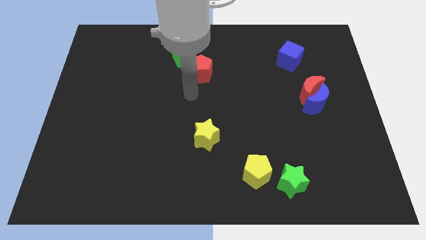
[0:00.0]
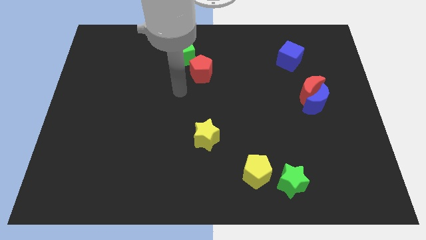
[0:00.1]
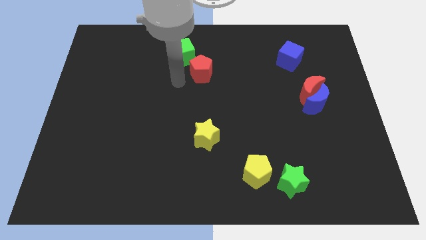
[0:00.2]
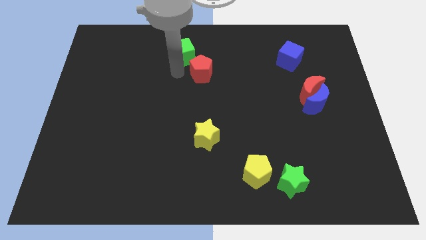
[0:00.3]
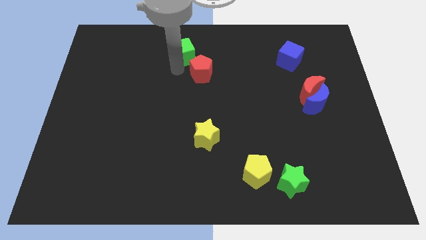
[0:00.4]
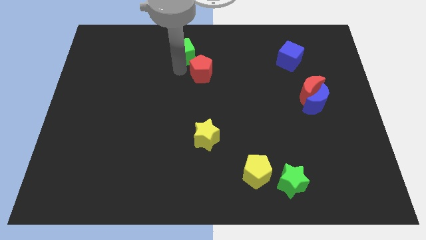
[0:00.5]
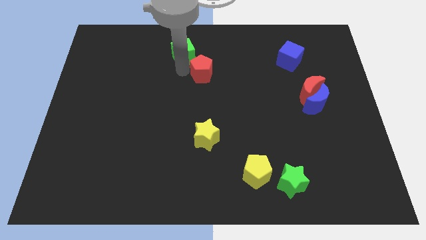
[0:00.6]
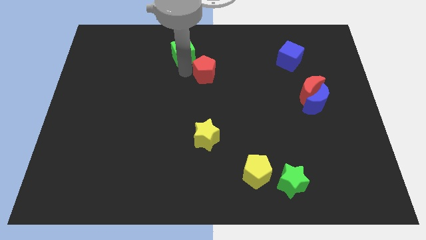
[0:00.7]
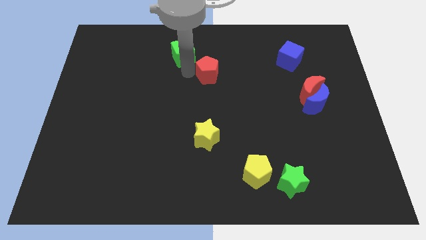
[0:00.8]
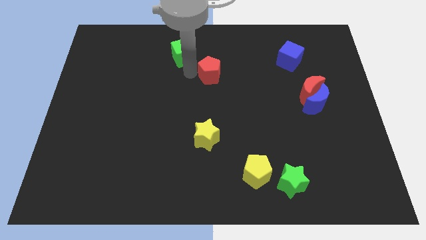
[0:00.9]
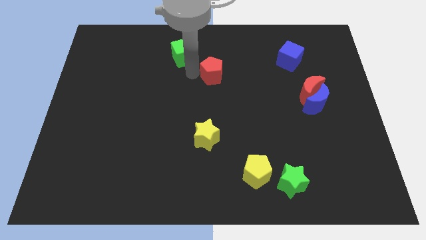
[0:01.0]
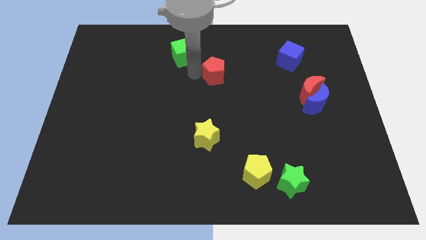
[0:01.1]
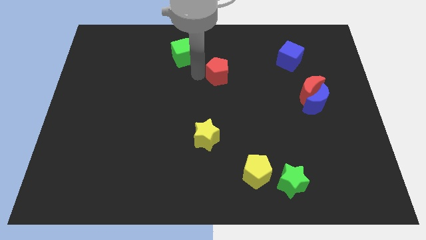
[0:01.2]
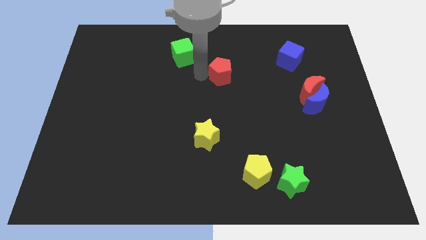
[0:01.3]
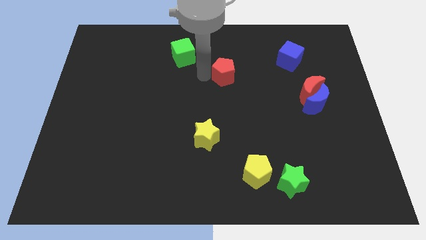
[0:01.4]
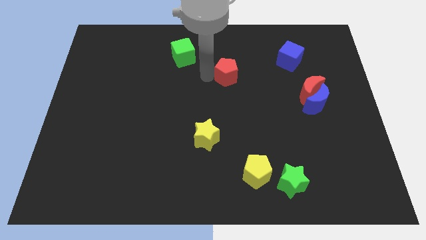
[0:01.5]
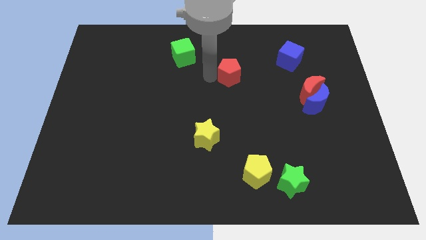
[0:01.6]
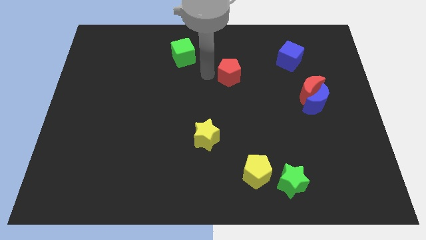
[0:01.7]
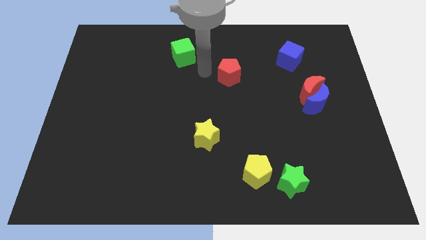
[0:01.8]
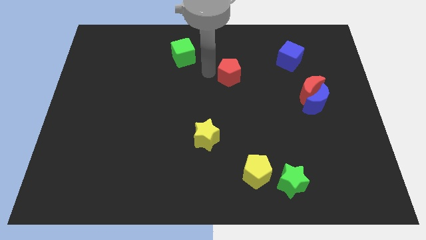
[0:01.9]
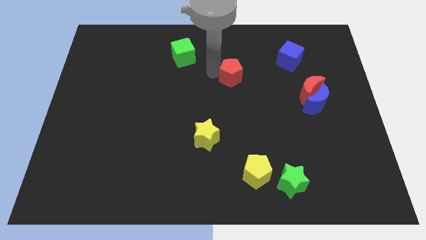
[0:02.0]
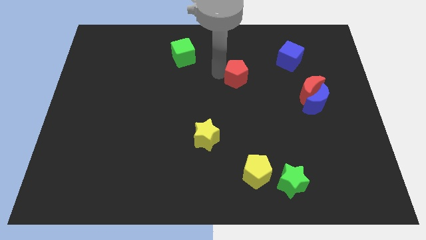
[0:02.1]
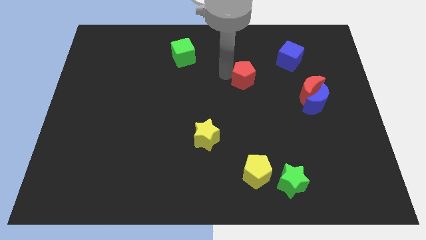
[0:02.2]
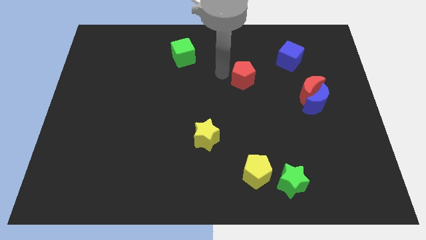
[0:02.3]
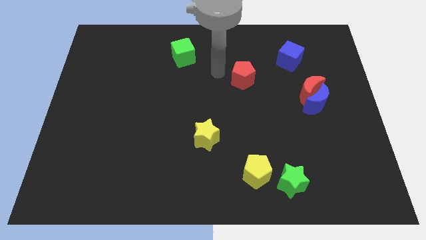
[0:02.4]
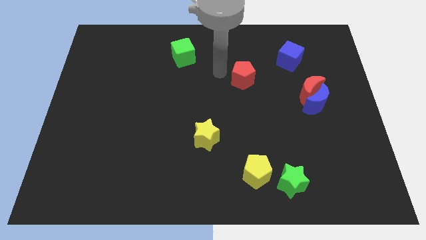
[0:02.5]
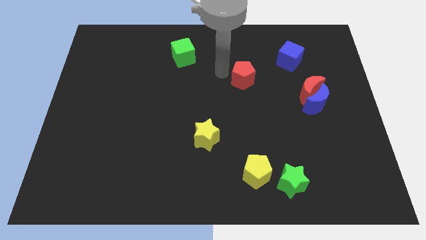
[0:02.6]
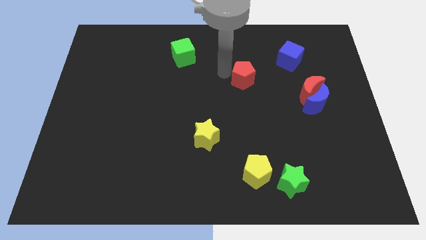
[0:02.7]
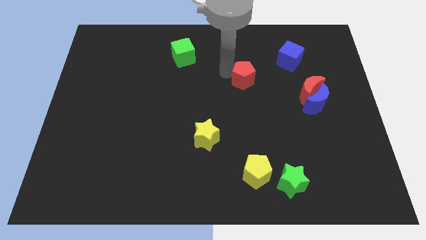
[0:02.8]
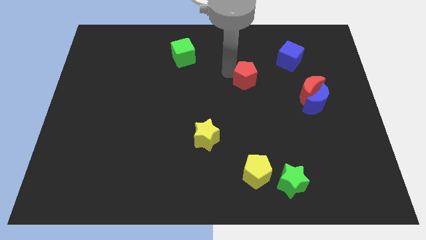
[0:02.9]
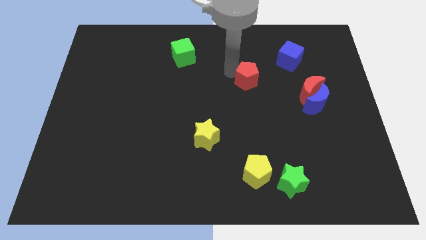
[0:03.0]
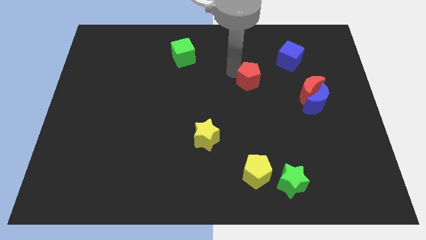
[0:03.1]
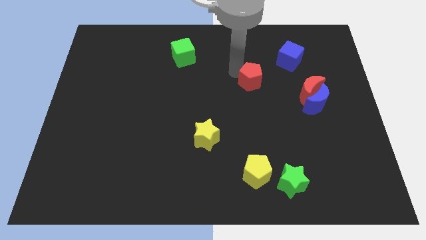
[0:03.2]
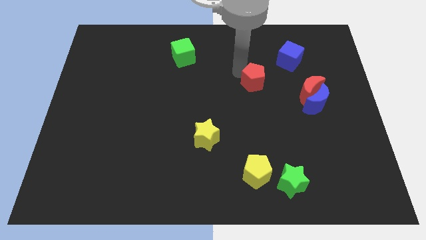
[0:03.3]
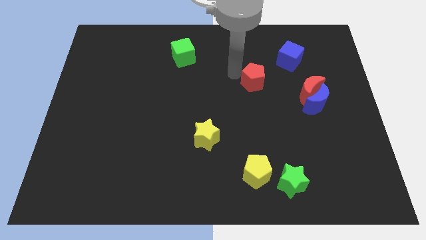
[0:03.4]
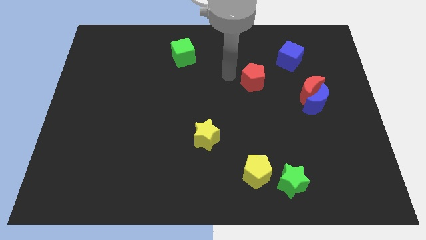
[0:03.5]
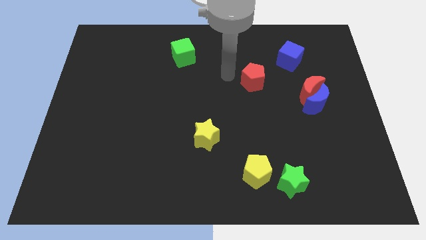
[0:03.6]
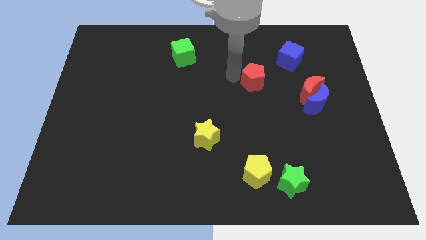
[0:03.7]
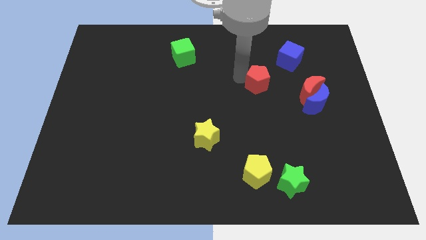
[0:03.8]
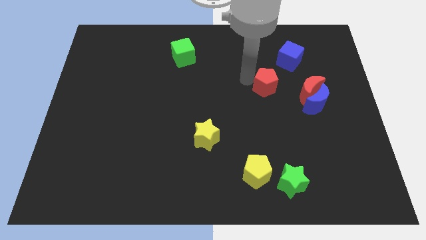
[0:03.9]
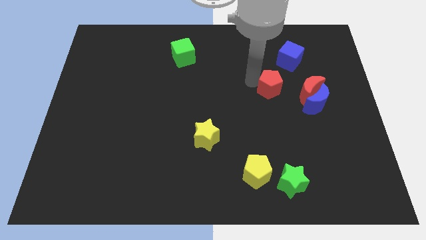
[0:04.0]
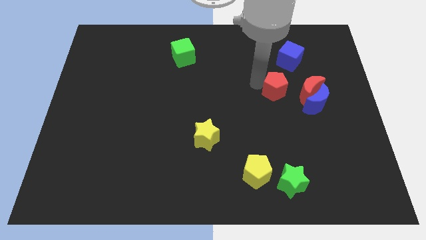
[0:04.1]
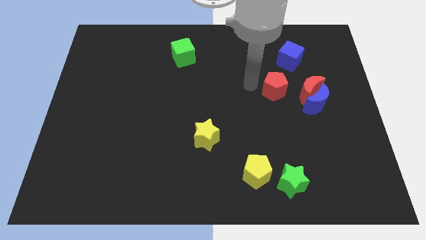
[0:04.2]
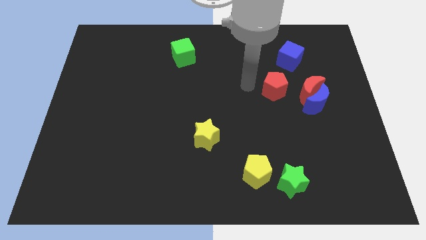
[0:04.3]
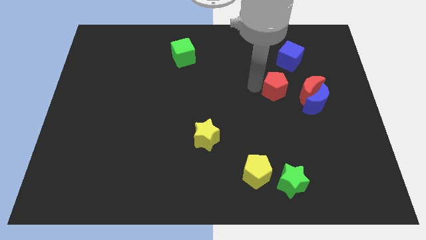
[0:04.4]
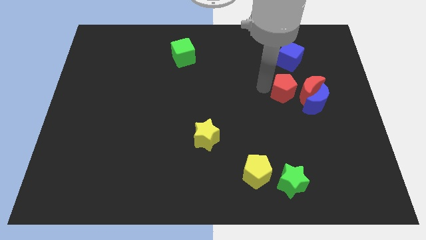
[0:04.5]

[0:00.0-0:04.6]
push the red pentagon next to the red moon

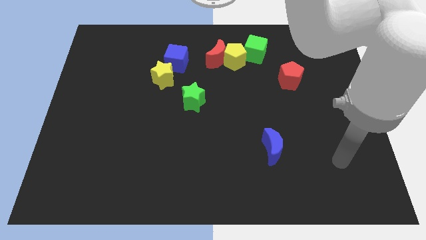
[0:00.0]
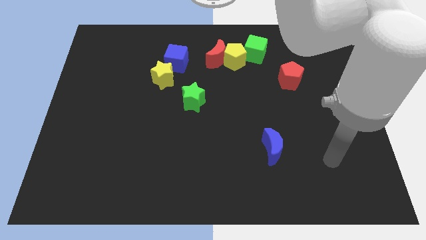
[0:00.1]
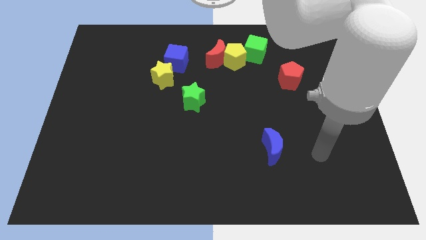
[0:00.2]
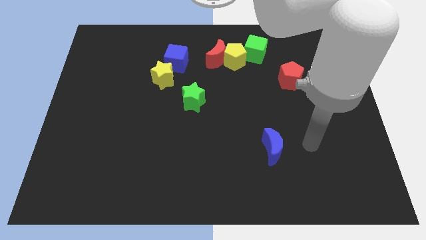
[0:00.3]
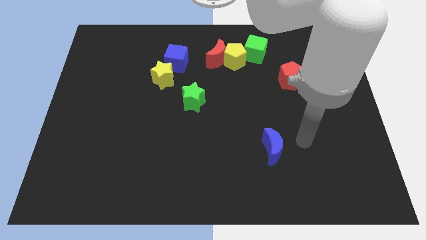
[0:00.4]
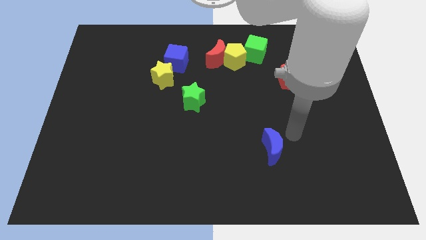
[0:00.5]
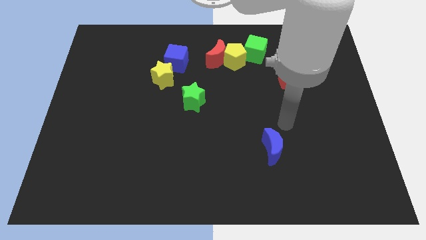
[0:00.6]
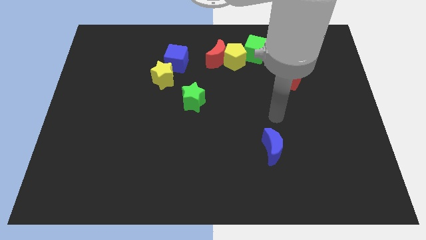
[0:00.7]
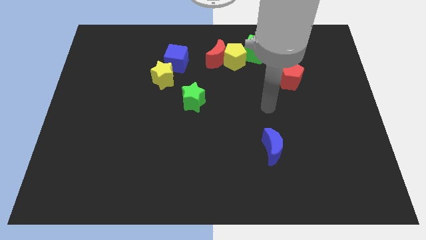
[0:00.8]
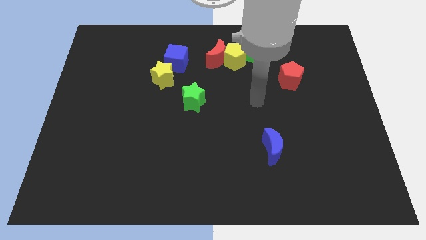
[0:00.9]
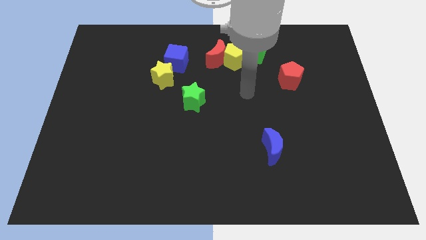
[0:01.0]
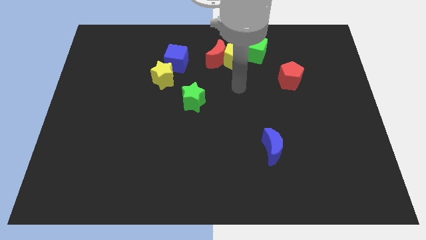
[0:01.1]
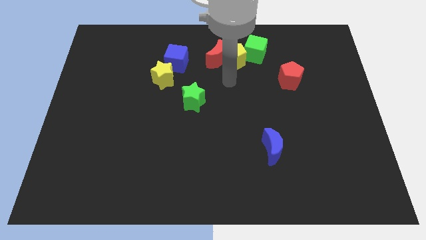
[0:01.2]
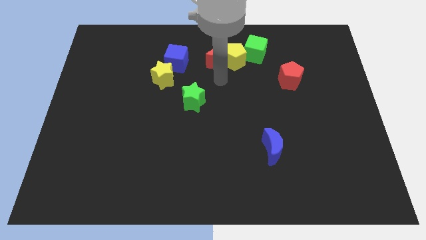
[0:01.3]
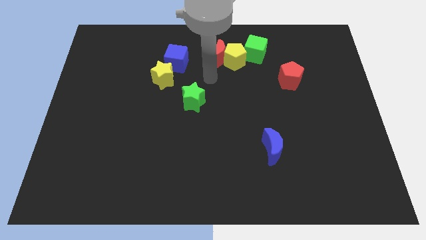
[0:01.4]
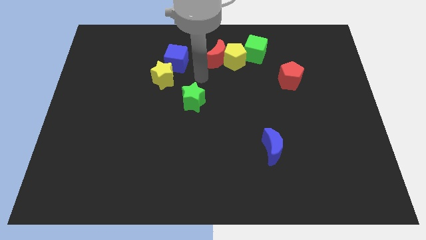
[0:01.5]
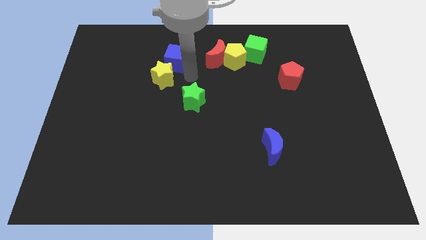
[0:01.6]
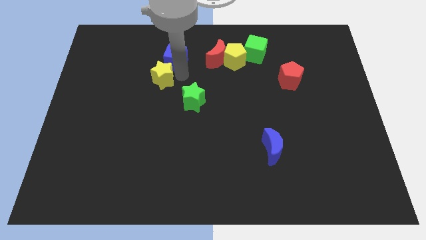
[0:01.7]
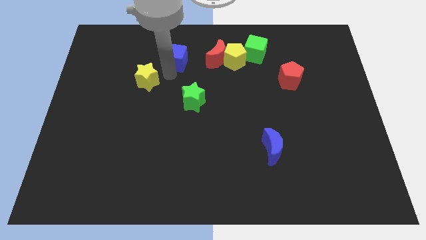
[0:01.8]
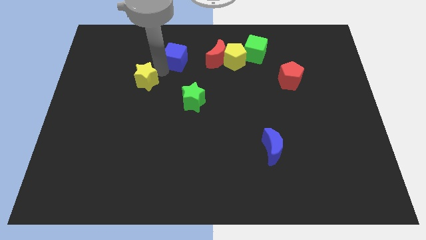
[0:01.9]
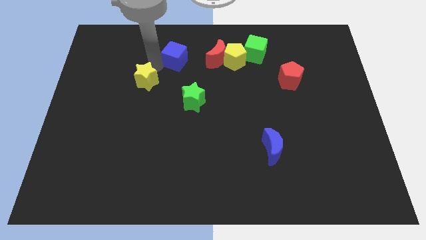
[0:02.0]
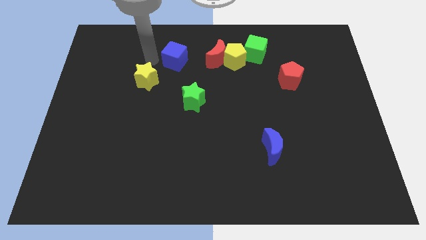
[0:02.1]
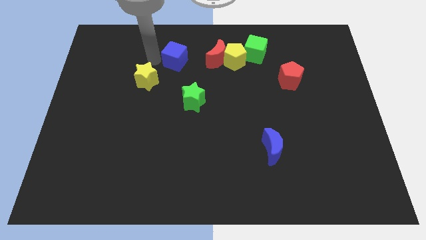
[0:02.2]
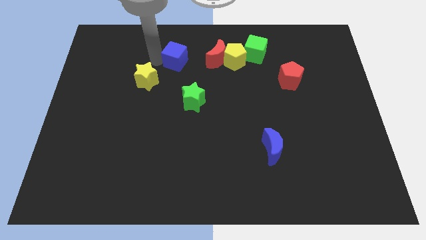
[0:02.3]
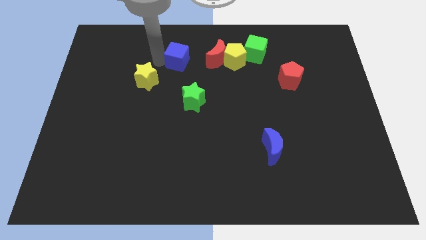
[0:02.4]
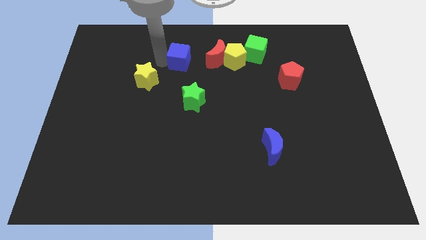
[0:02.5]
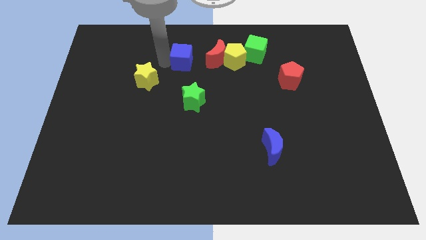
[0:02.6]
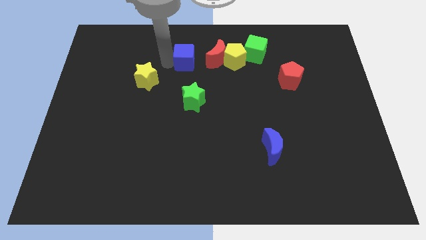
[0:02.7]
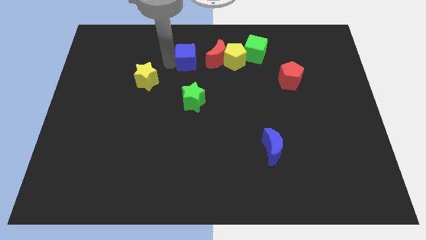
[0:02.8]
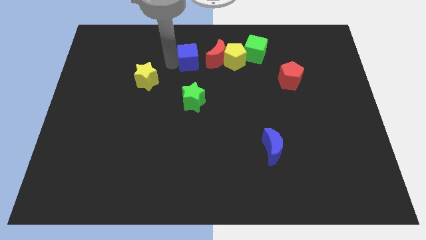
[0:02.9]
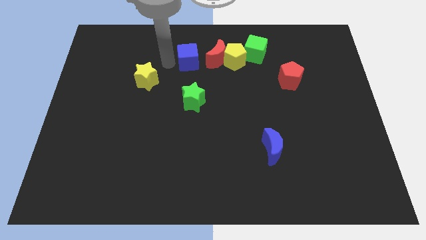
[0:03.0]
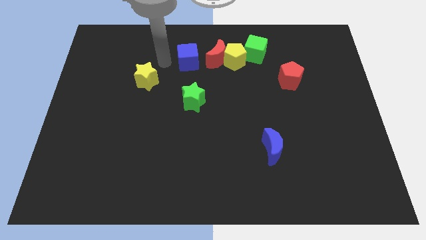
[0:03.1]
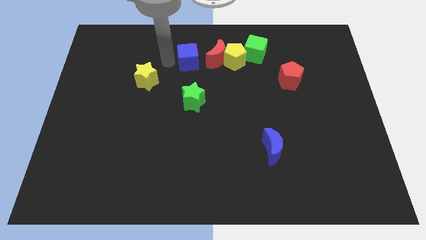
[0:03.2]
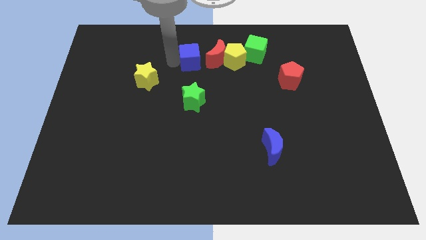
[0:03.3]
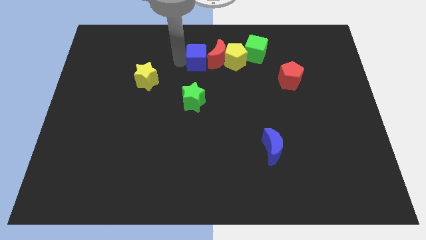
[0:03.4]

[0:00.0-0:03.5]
push the blue cube towards the red moon
